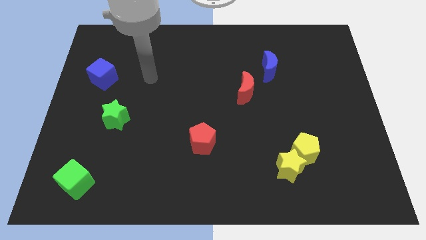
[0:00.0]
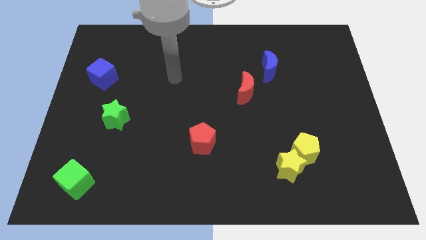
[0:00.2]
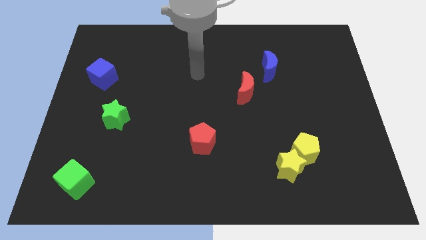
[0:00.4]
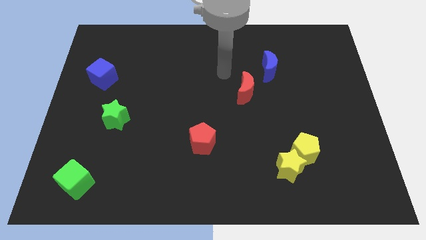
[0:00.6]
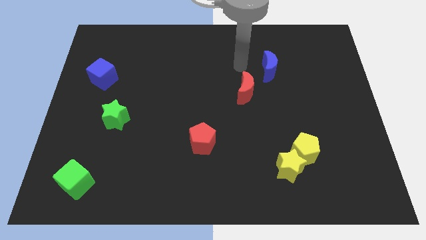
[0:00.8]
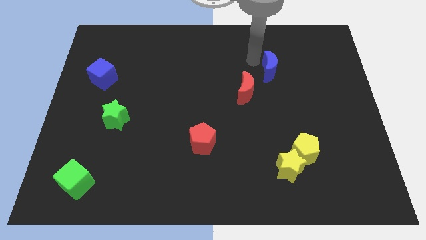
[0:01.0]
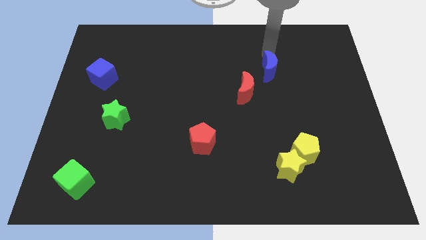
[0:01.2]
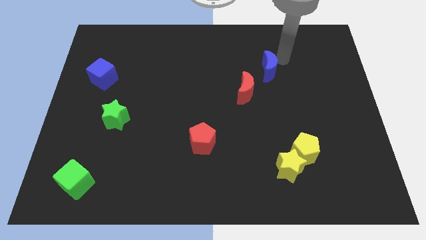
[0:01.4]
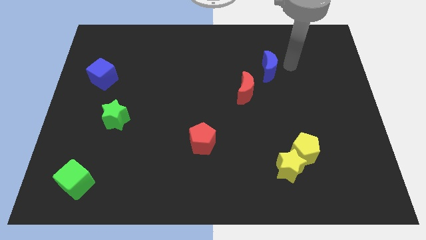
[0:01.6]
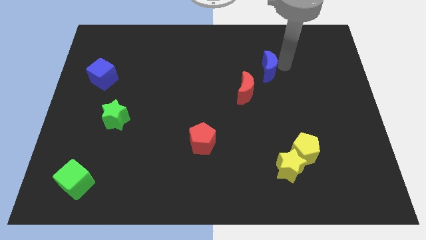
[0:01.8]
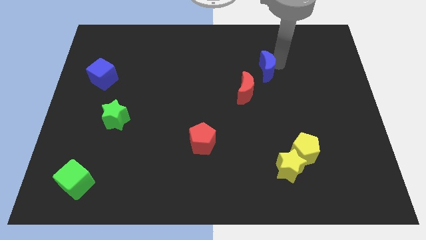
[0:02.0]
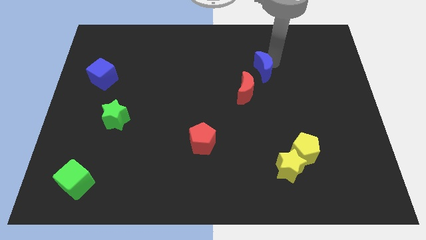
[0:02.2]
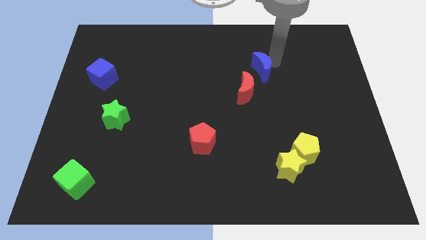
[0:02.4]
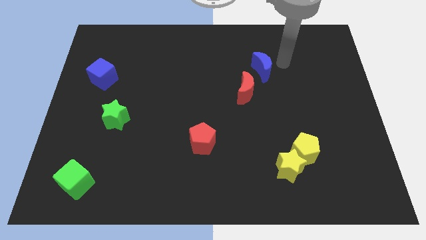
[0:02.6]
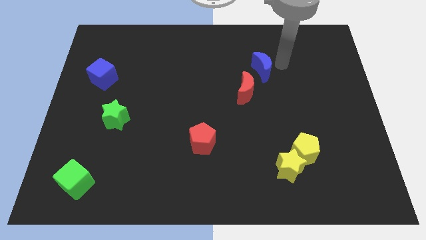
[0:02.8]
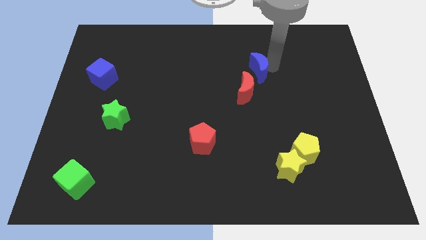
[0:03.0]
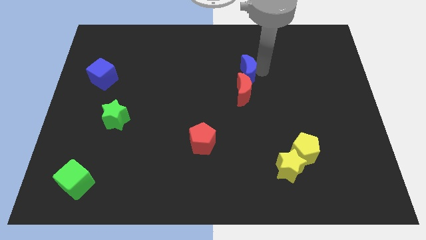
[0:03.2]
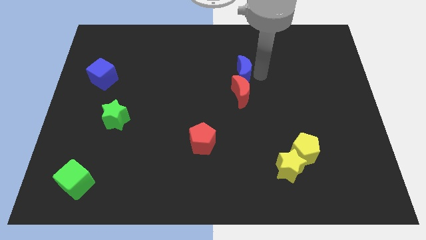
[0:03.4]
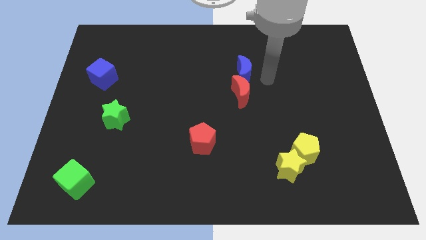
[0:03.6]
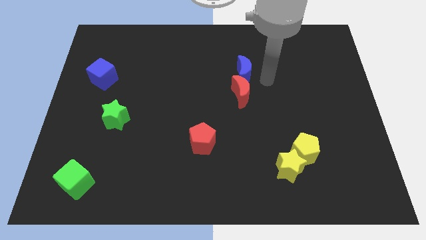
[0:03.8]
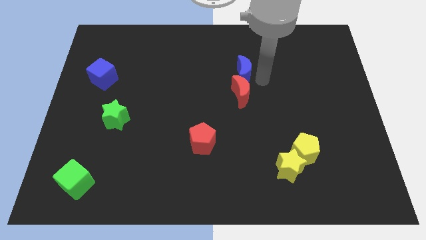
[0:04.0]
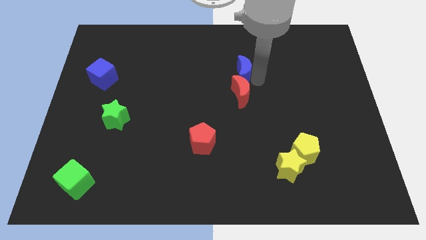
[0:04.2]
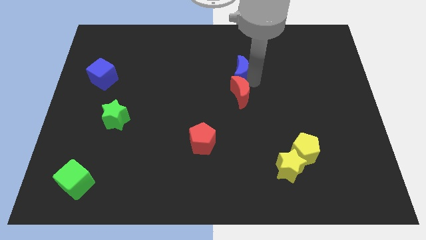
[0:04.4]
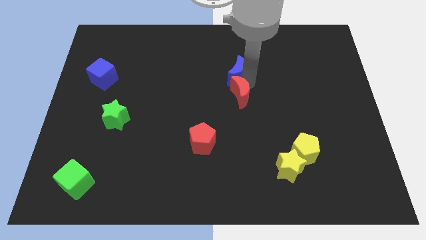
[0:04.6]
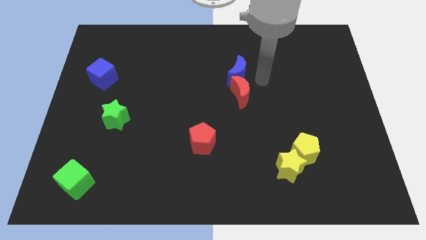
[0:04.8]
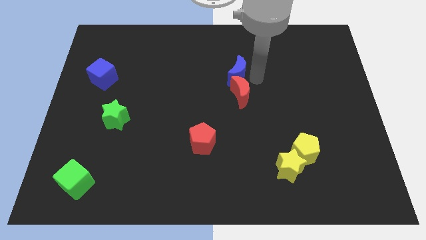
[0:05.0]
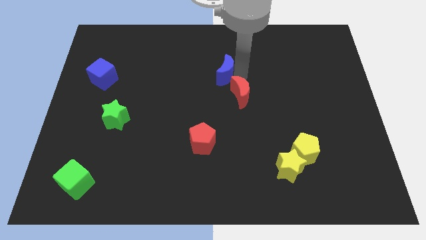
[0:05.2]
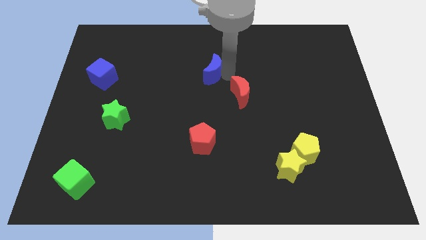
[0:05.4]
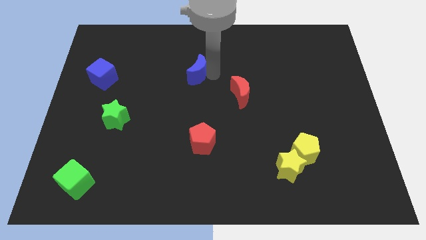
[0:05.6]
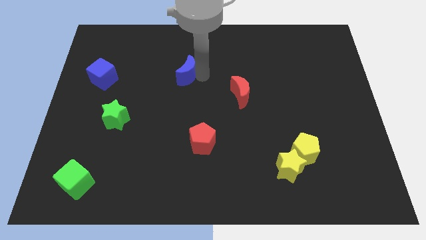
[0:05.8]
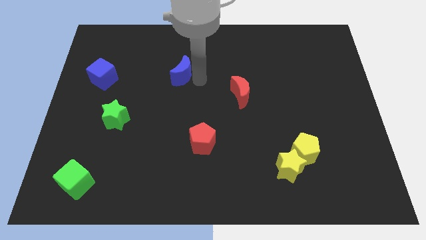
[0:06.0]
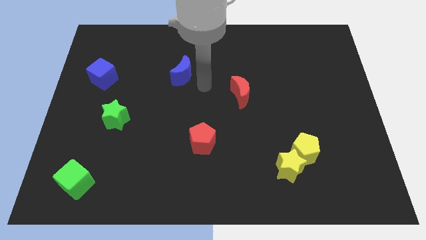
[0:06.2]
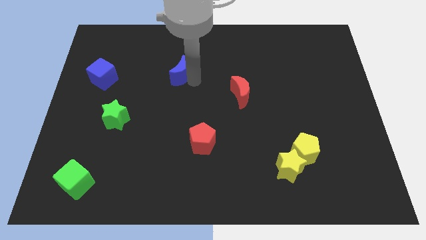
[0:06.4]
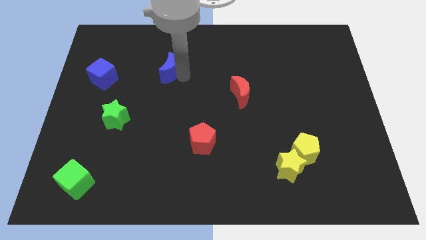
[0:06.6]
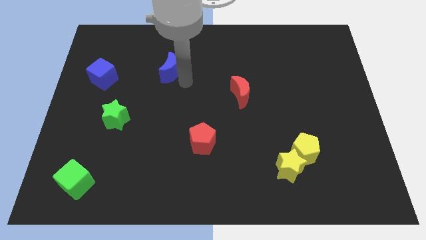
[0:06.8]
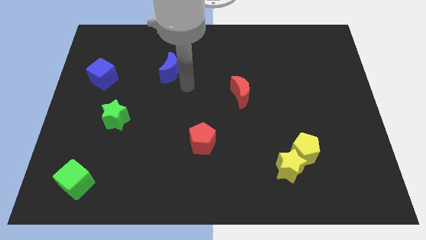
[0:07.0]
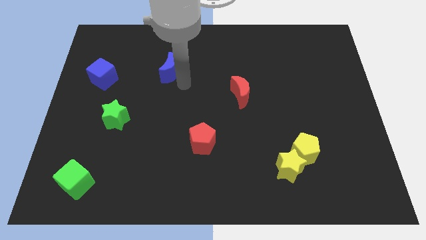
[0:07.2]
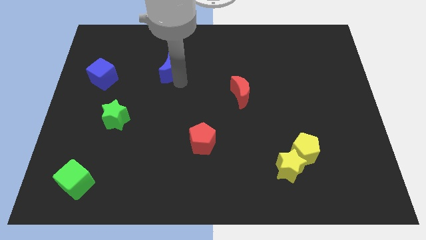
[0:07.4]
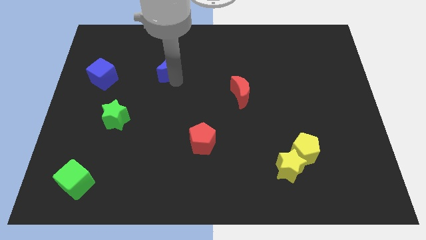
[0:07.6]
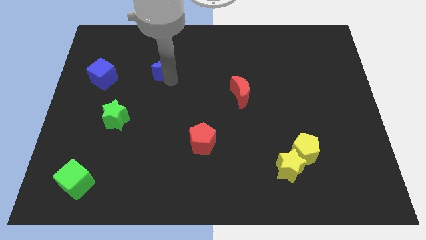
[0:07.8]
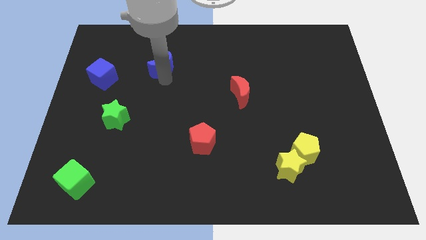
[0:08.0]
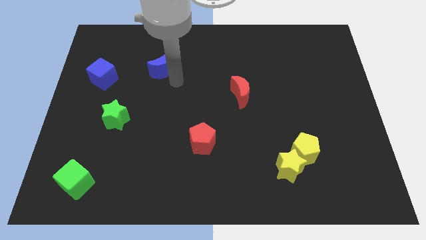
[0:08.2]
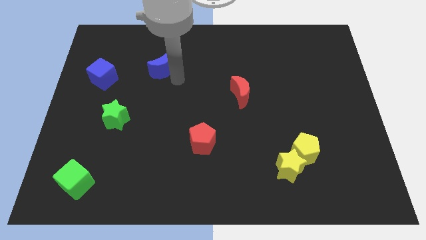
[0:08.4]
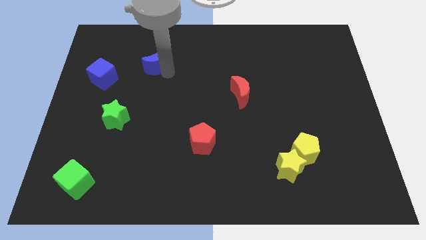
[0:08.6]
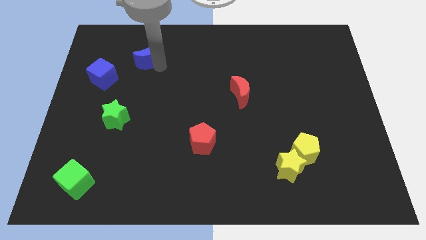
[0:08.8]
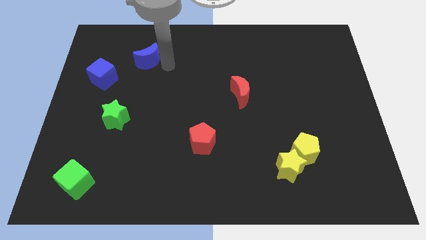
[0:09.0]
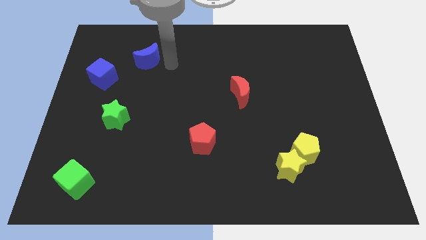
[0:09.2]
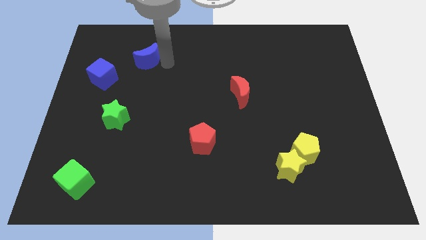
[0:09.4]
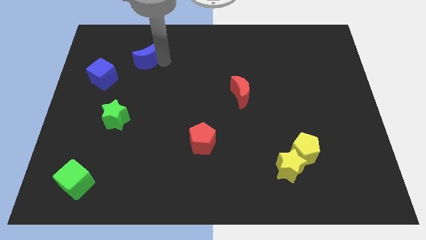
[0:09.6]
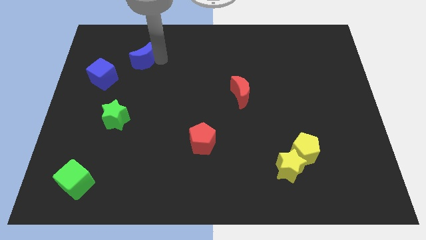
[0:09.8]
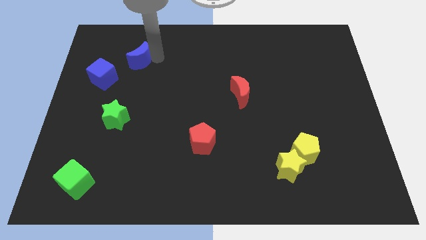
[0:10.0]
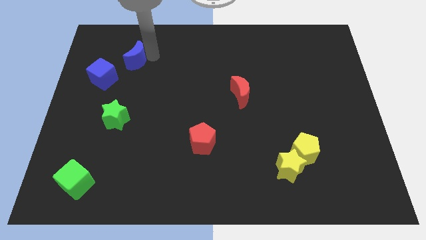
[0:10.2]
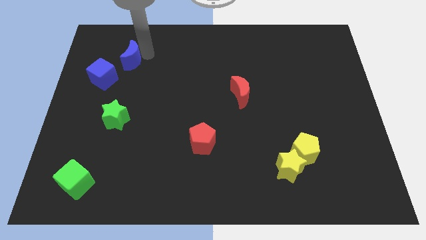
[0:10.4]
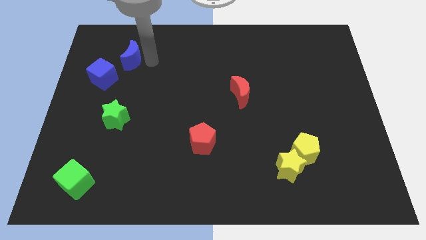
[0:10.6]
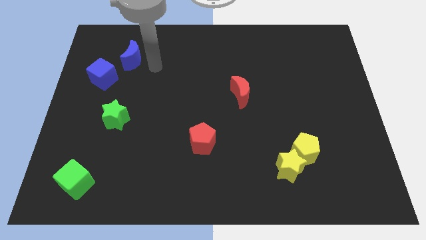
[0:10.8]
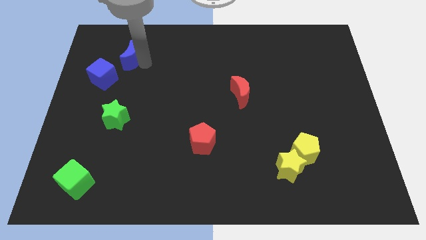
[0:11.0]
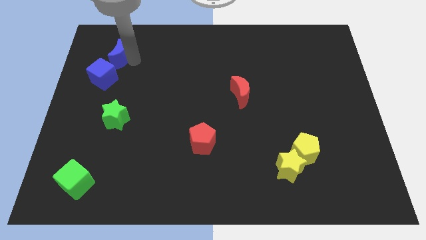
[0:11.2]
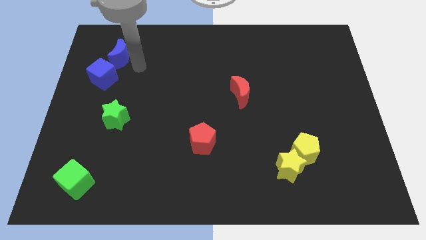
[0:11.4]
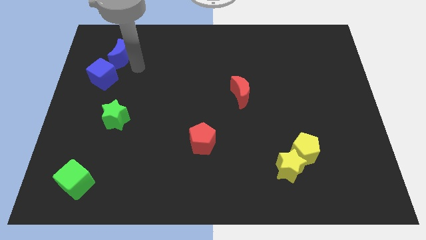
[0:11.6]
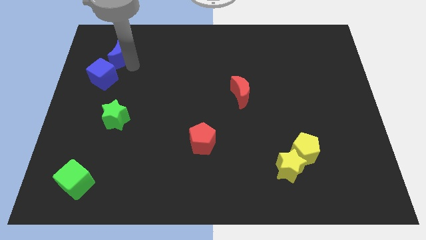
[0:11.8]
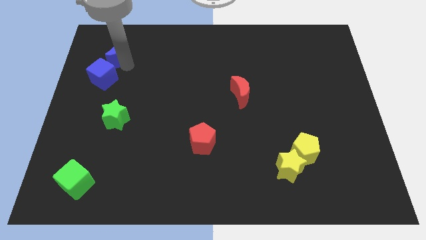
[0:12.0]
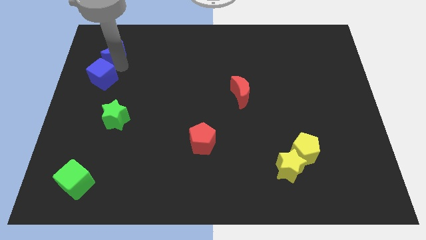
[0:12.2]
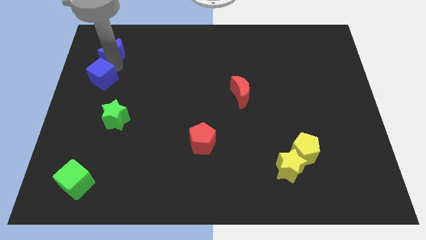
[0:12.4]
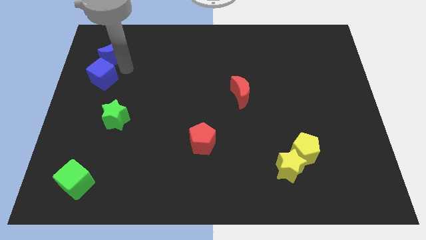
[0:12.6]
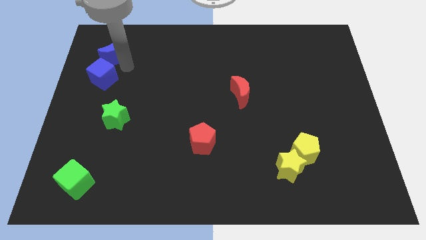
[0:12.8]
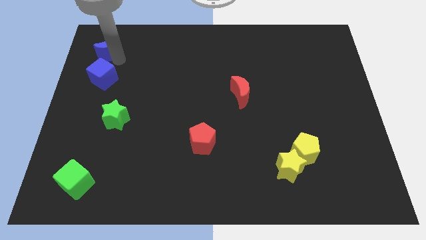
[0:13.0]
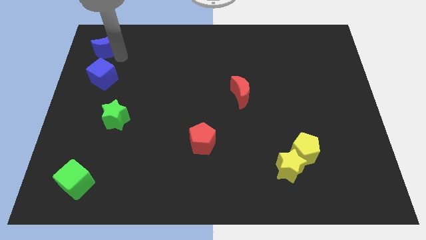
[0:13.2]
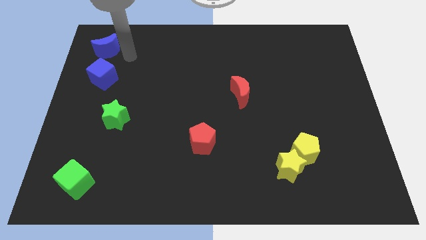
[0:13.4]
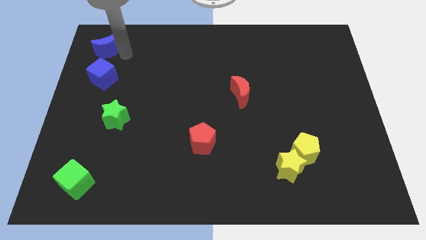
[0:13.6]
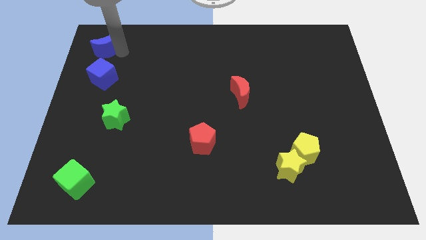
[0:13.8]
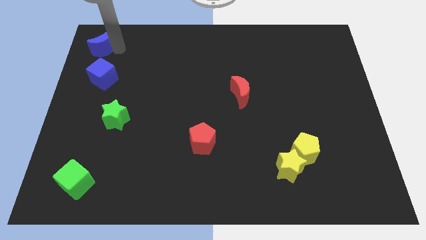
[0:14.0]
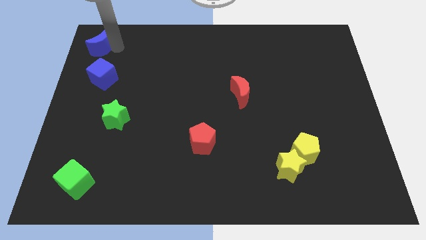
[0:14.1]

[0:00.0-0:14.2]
push the blue moon to the upper left corner
